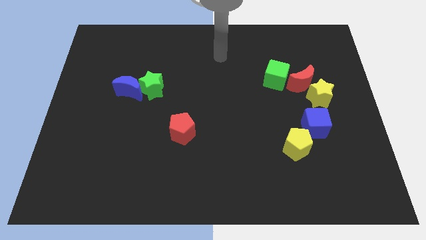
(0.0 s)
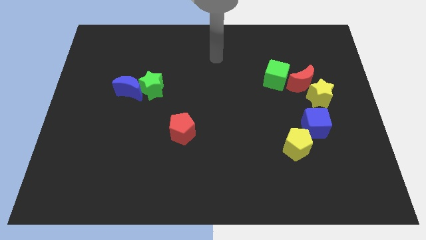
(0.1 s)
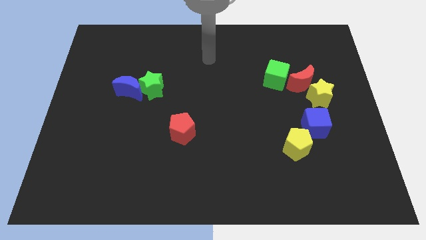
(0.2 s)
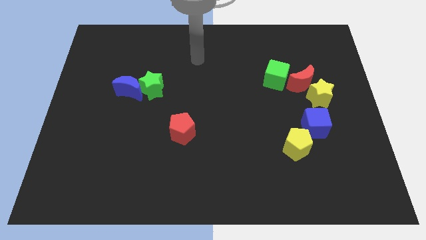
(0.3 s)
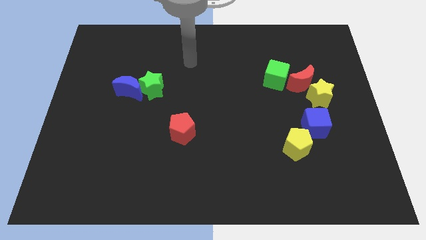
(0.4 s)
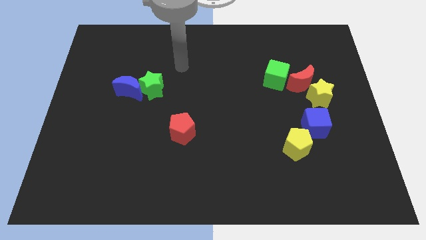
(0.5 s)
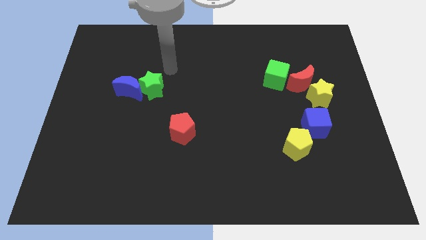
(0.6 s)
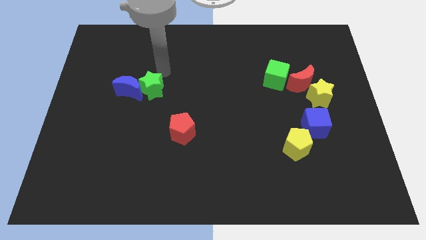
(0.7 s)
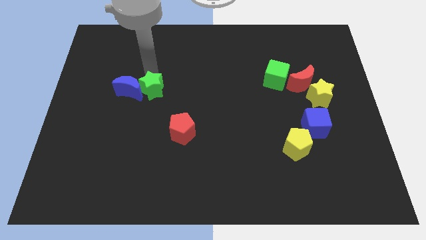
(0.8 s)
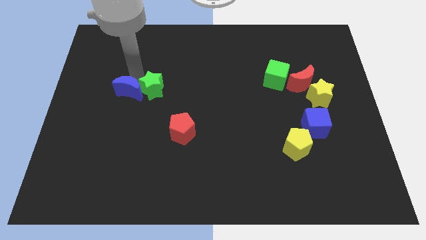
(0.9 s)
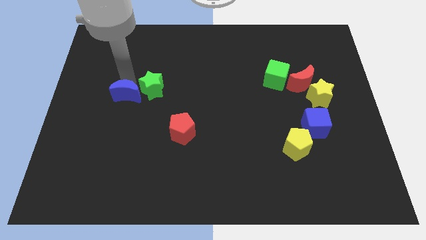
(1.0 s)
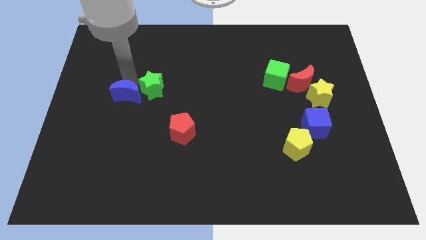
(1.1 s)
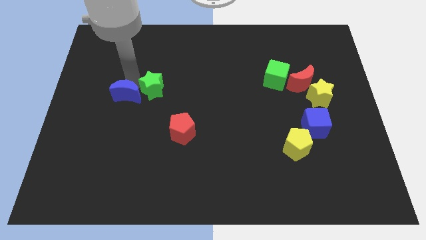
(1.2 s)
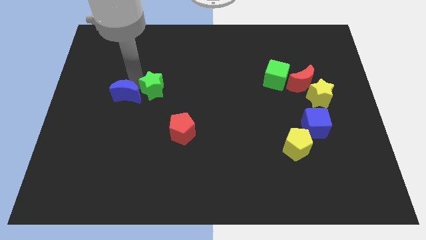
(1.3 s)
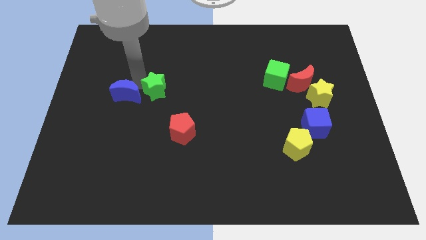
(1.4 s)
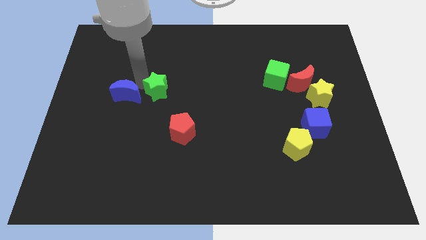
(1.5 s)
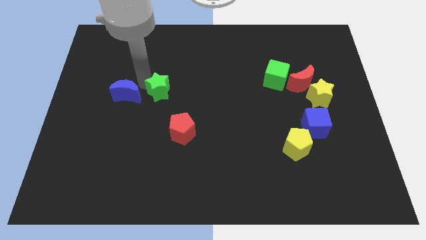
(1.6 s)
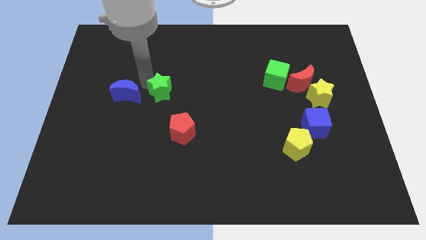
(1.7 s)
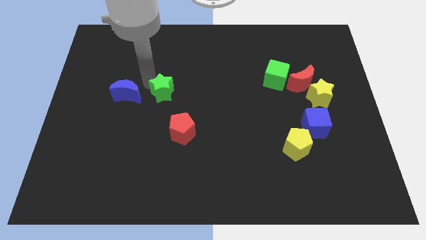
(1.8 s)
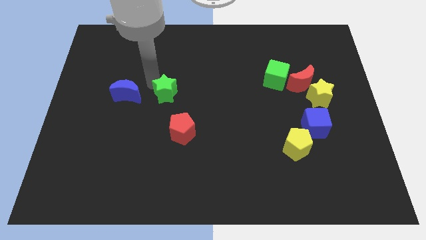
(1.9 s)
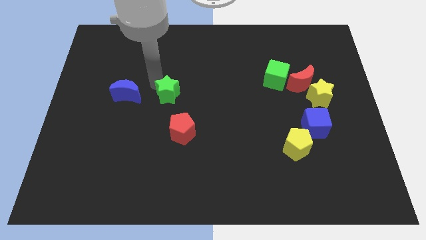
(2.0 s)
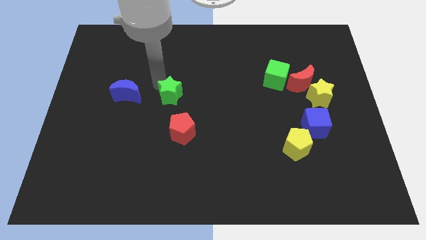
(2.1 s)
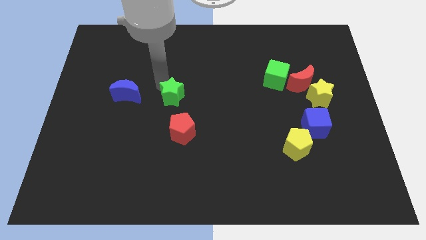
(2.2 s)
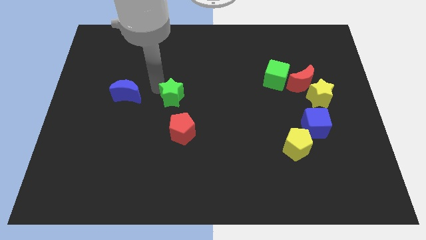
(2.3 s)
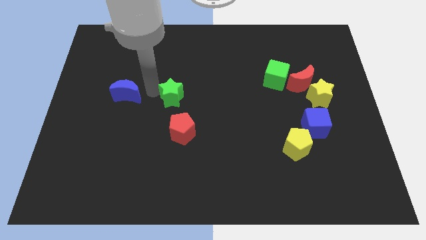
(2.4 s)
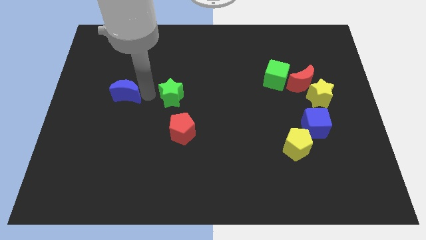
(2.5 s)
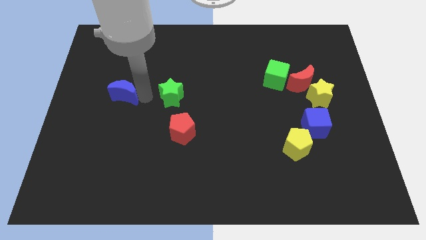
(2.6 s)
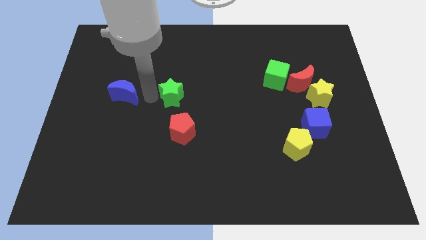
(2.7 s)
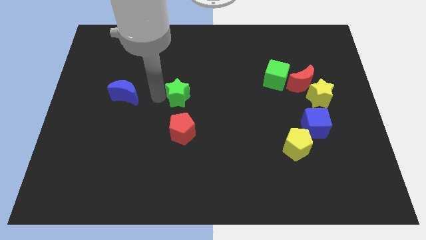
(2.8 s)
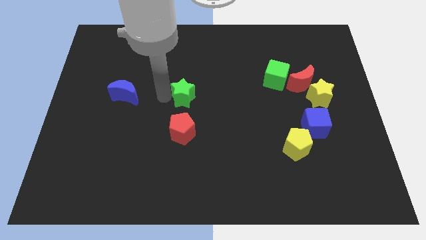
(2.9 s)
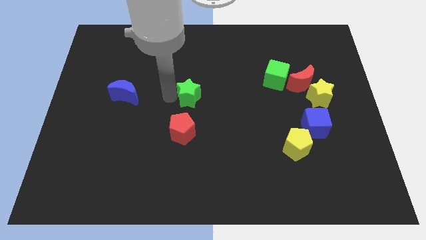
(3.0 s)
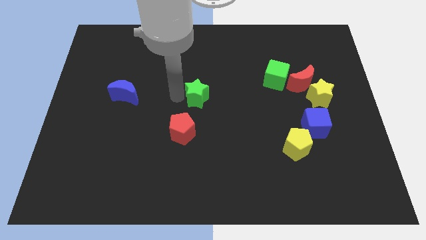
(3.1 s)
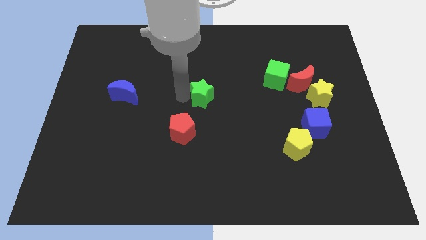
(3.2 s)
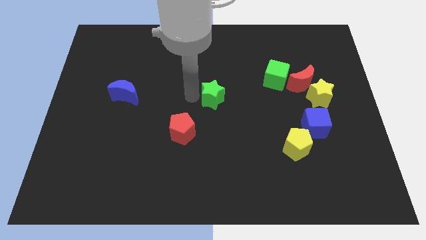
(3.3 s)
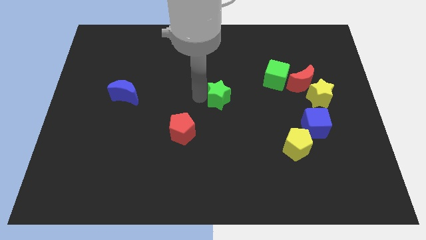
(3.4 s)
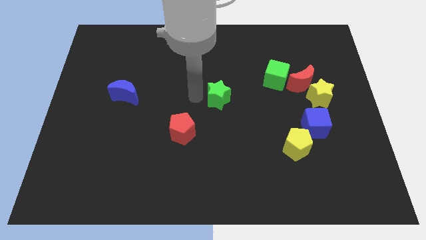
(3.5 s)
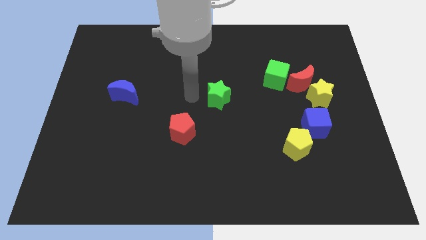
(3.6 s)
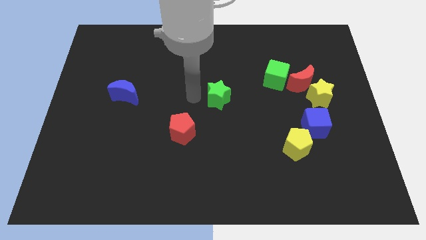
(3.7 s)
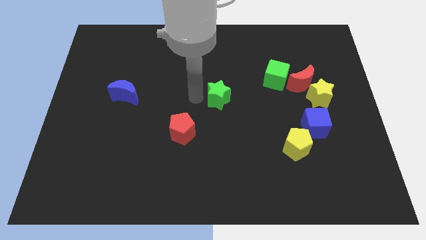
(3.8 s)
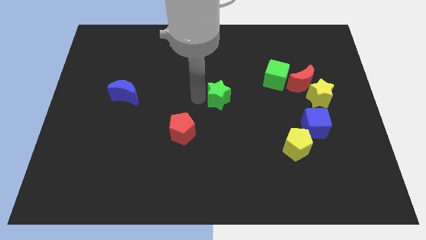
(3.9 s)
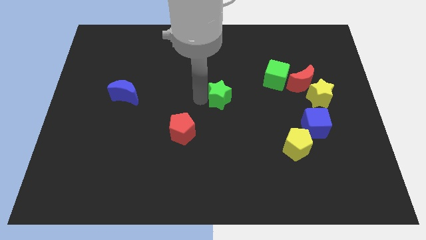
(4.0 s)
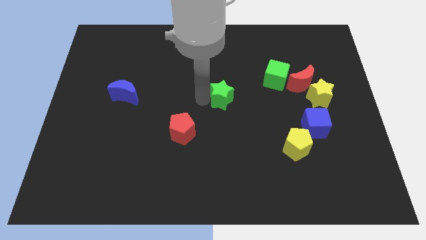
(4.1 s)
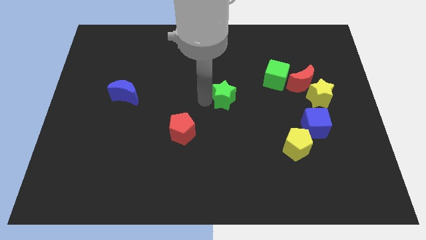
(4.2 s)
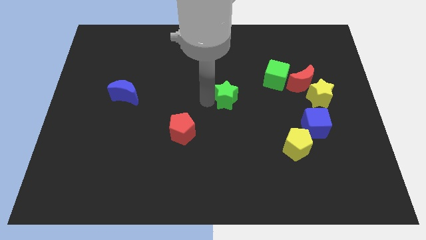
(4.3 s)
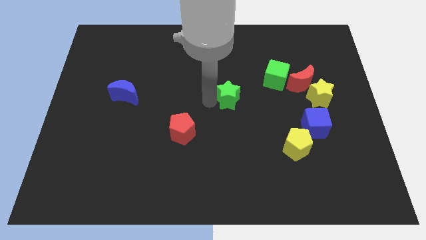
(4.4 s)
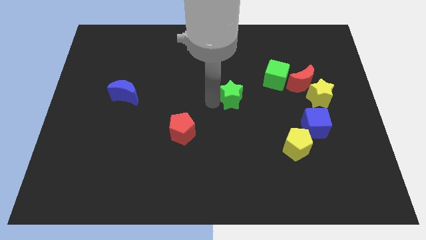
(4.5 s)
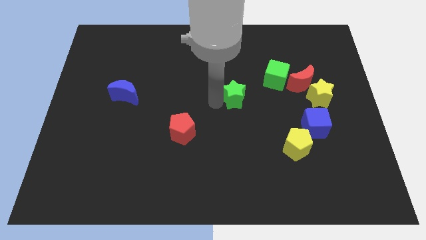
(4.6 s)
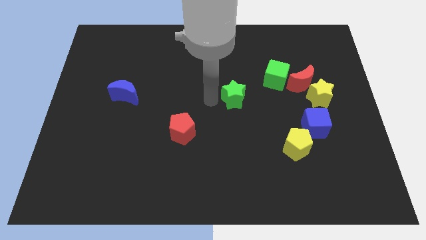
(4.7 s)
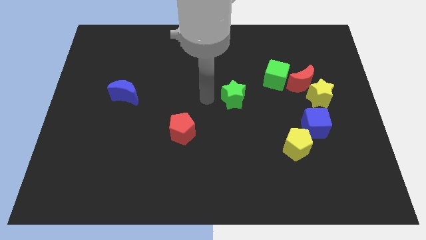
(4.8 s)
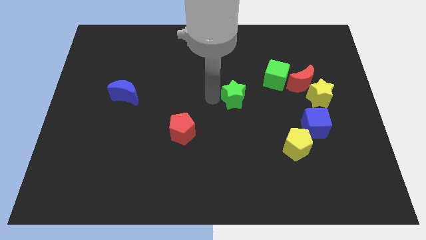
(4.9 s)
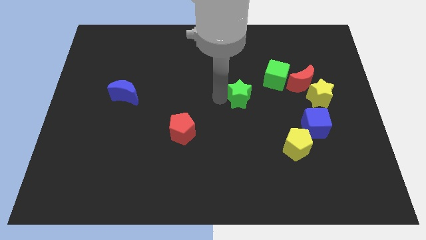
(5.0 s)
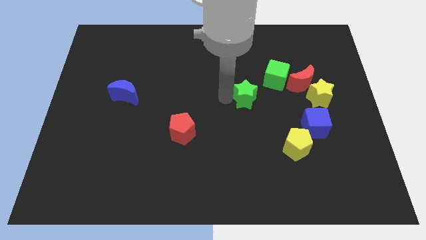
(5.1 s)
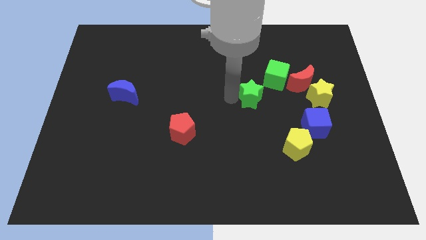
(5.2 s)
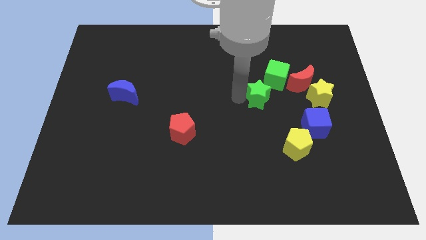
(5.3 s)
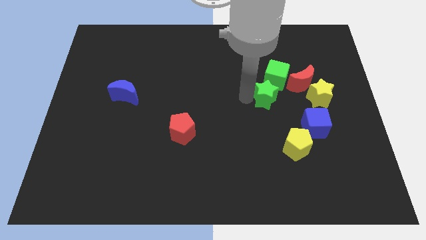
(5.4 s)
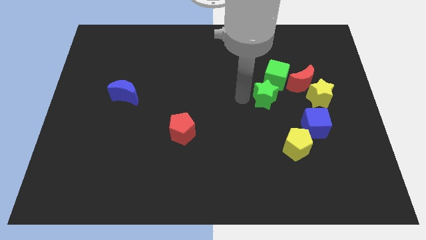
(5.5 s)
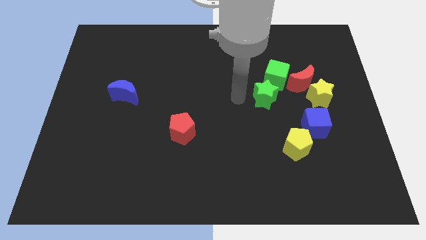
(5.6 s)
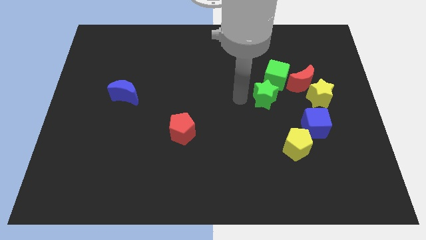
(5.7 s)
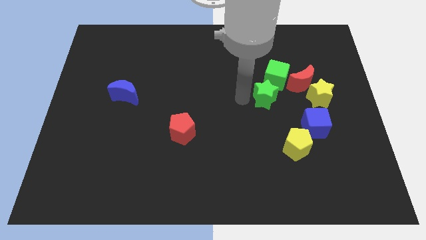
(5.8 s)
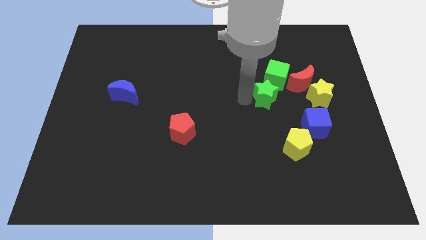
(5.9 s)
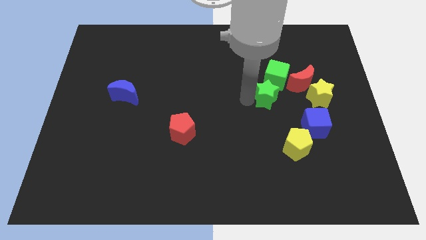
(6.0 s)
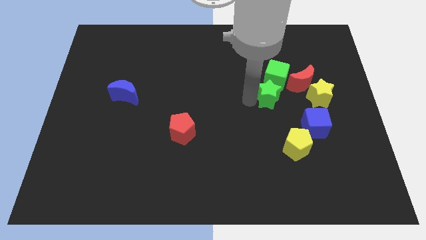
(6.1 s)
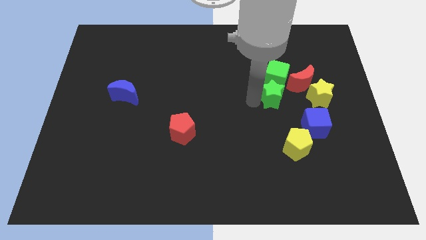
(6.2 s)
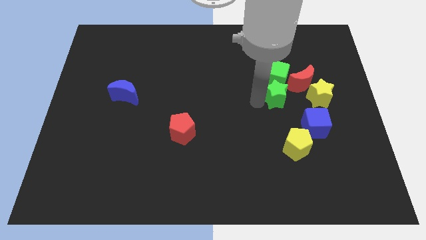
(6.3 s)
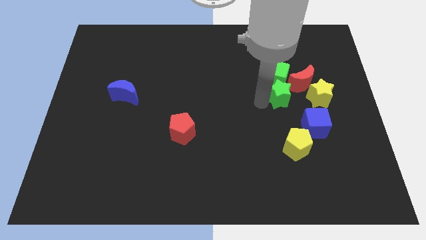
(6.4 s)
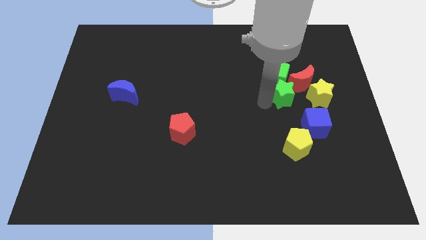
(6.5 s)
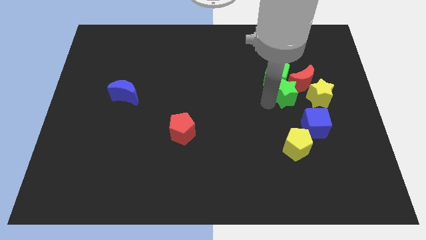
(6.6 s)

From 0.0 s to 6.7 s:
slide the green star towards the red moon

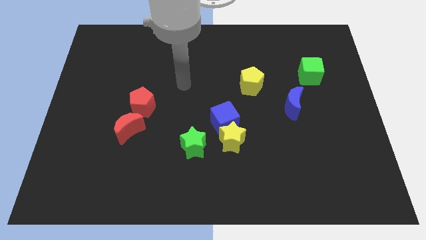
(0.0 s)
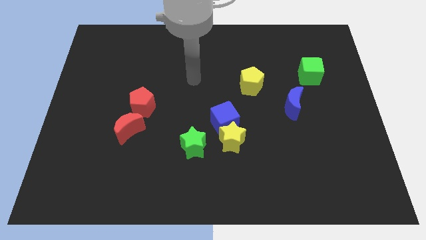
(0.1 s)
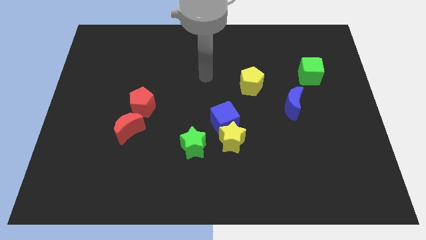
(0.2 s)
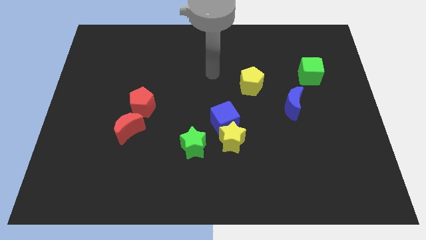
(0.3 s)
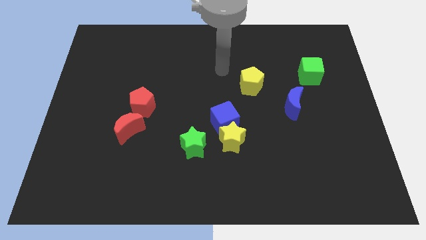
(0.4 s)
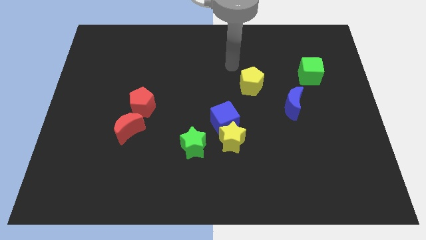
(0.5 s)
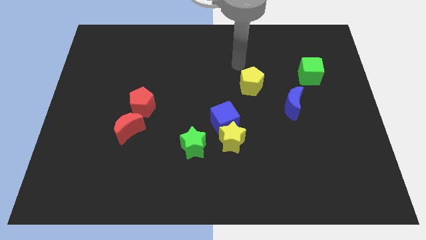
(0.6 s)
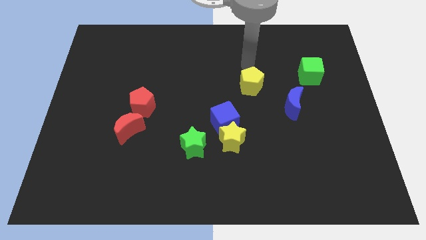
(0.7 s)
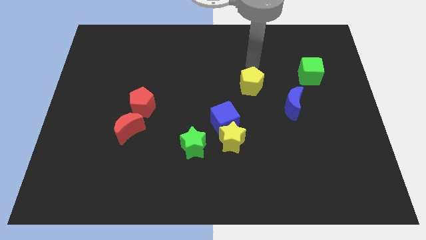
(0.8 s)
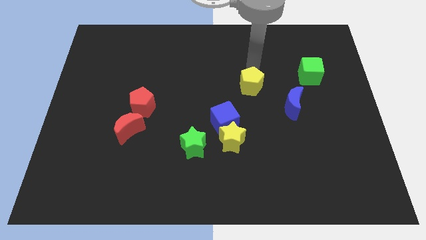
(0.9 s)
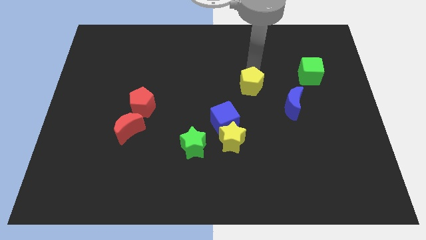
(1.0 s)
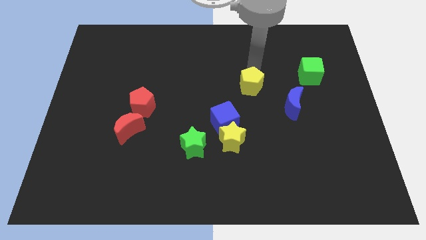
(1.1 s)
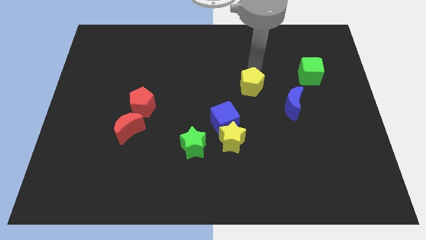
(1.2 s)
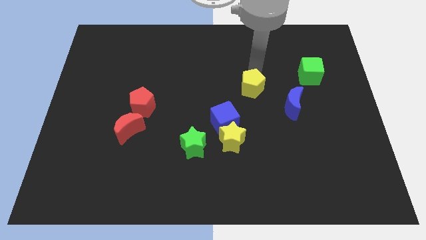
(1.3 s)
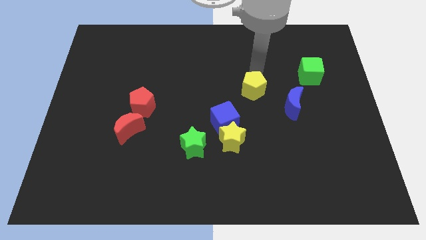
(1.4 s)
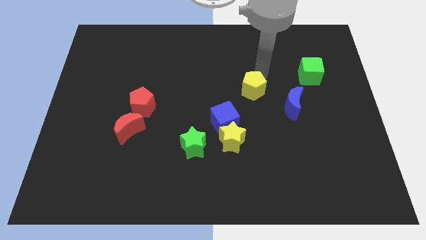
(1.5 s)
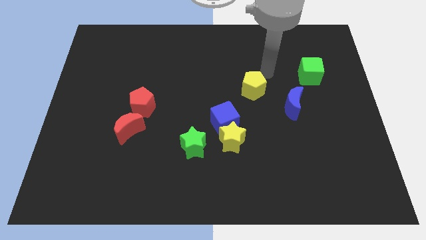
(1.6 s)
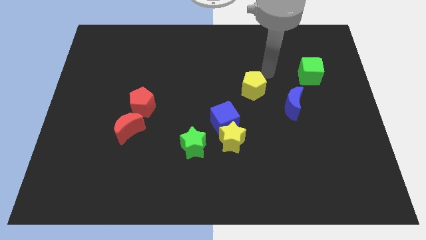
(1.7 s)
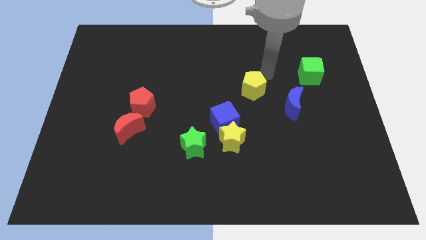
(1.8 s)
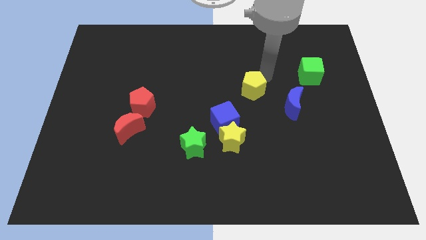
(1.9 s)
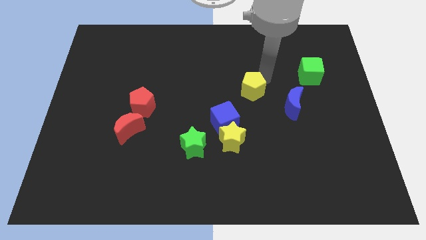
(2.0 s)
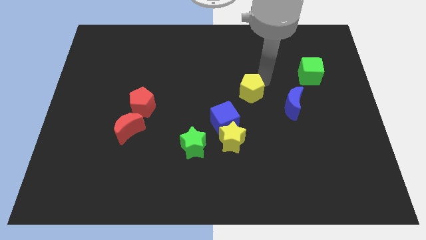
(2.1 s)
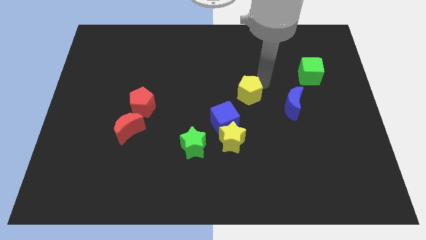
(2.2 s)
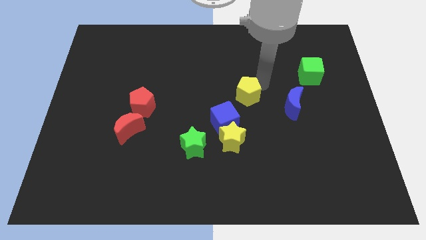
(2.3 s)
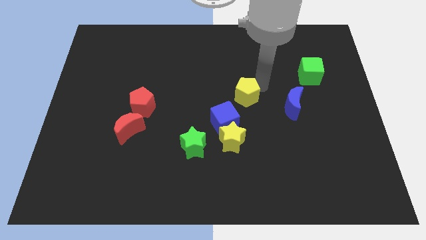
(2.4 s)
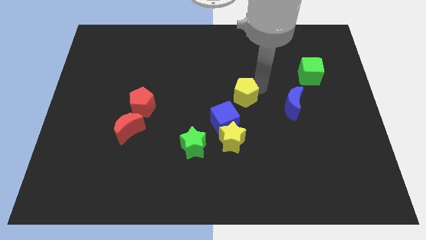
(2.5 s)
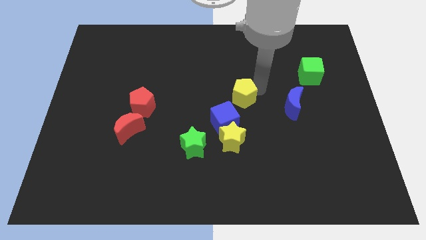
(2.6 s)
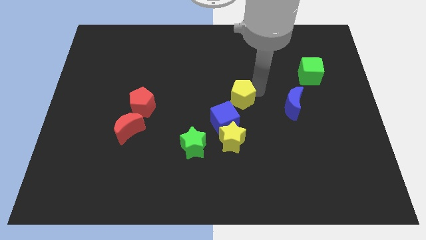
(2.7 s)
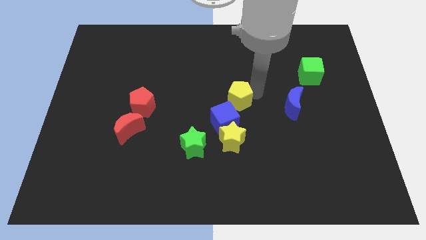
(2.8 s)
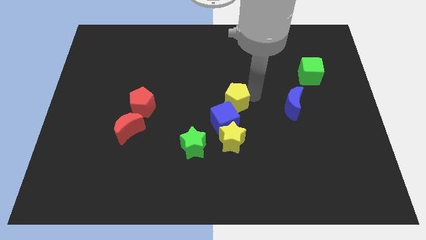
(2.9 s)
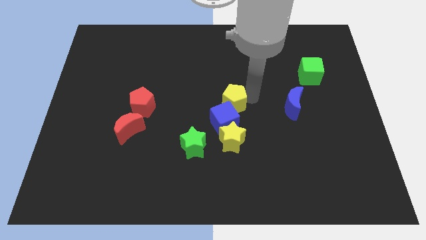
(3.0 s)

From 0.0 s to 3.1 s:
push the yellow pentagon towards the blue cube
